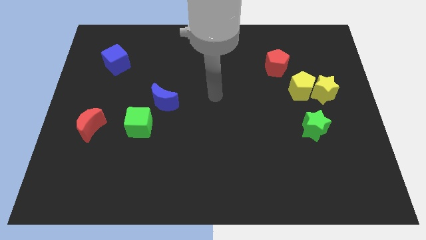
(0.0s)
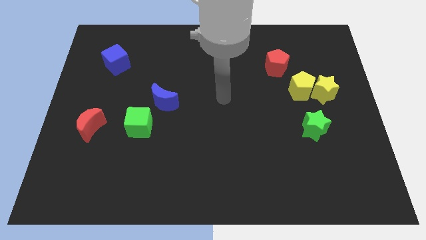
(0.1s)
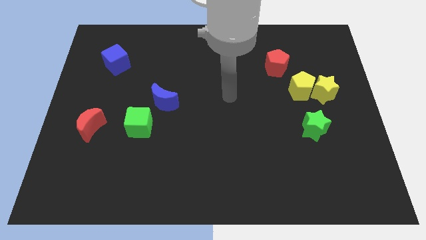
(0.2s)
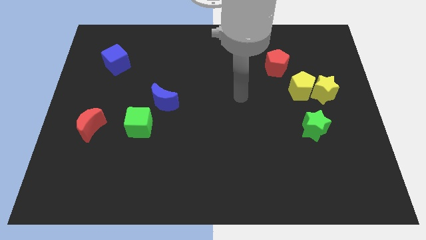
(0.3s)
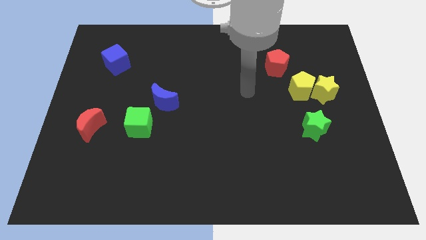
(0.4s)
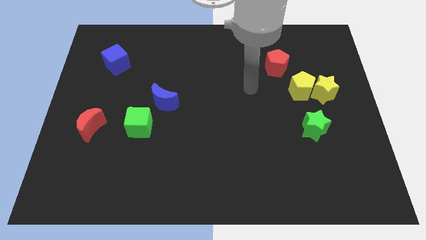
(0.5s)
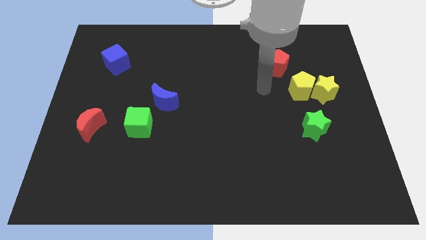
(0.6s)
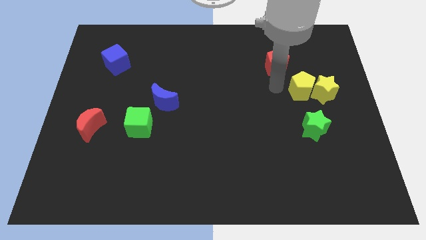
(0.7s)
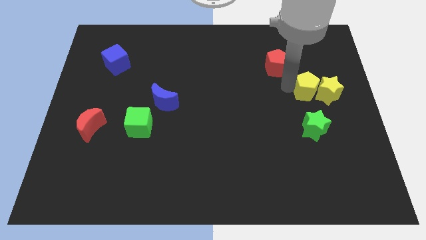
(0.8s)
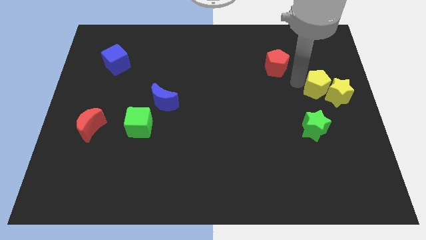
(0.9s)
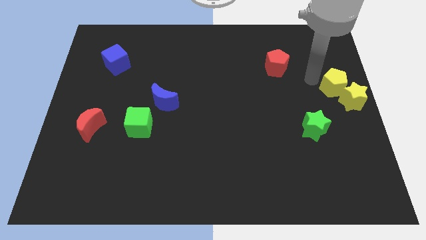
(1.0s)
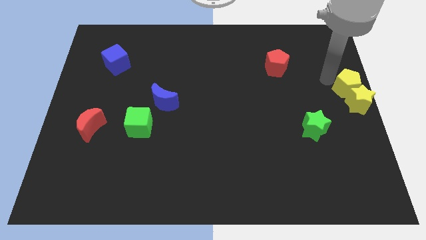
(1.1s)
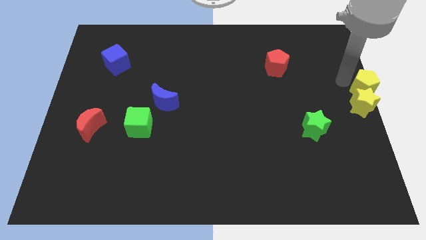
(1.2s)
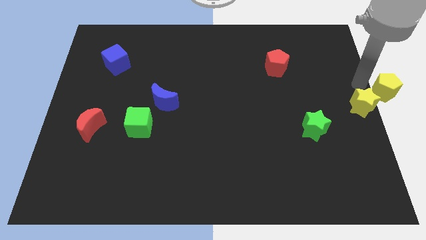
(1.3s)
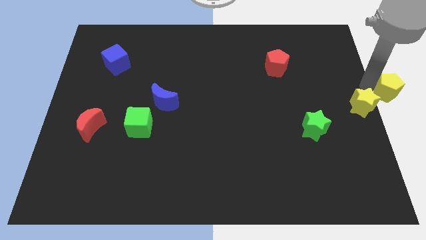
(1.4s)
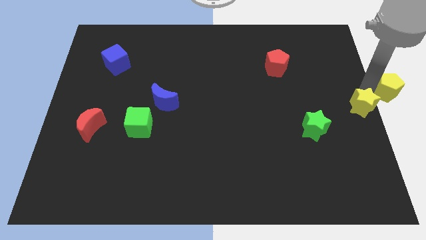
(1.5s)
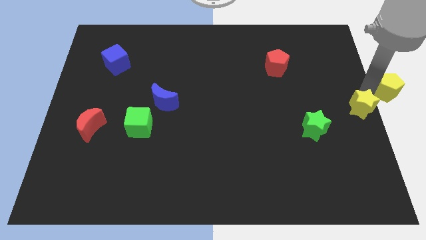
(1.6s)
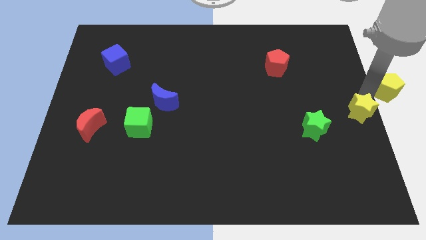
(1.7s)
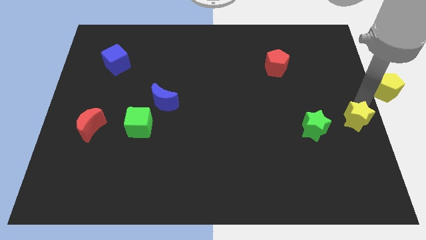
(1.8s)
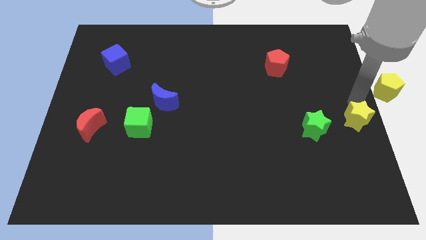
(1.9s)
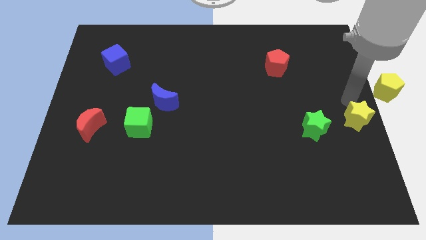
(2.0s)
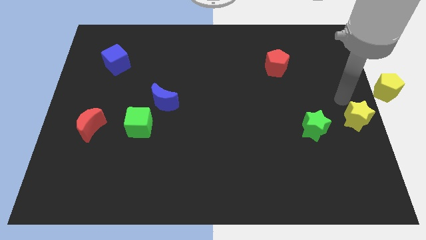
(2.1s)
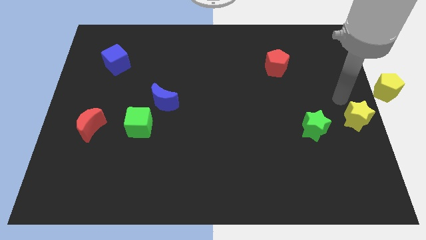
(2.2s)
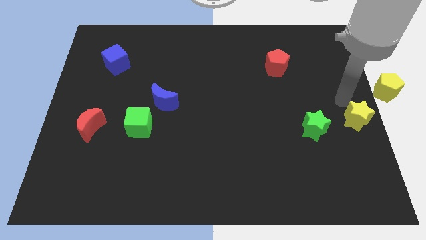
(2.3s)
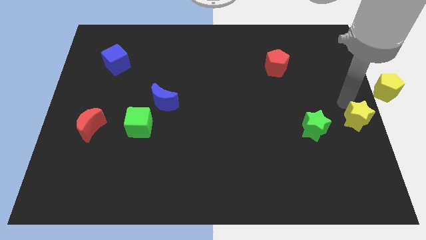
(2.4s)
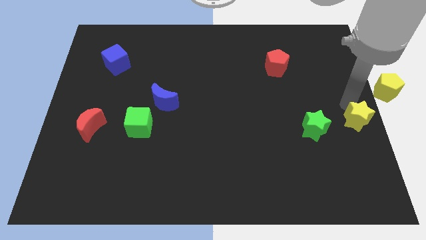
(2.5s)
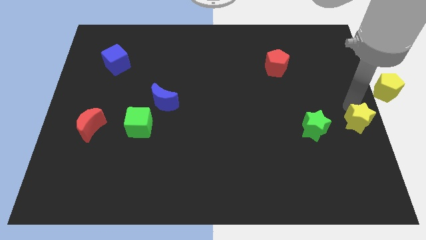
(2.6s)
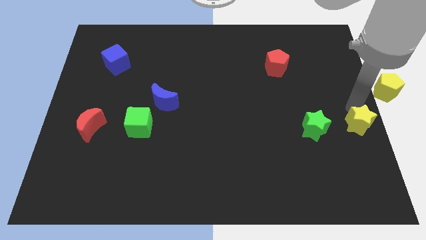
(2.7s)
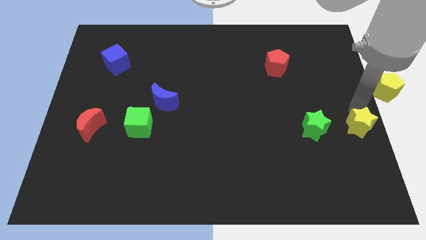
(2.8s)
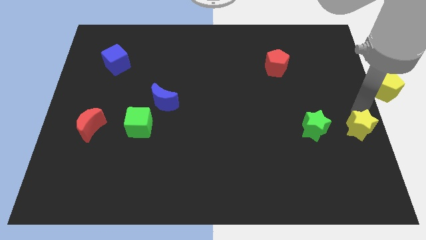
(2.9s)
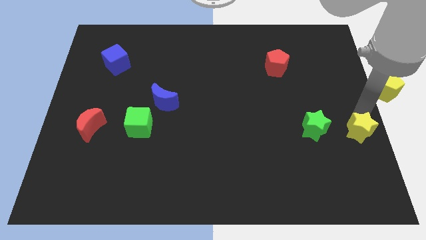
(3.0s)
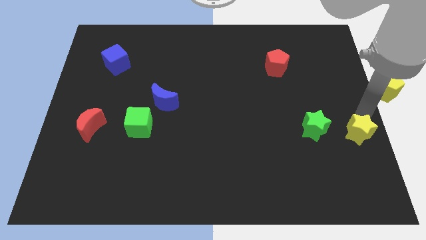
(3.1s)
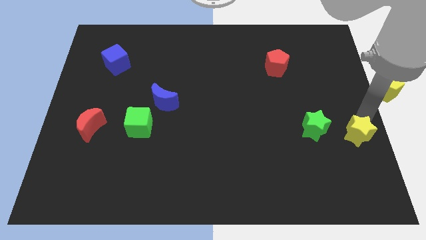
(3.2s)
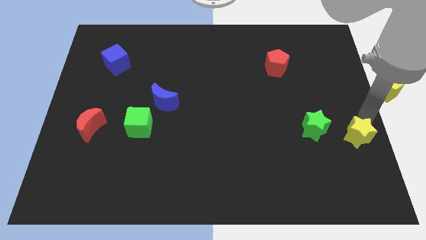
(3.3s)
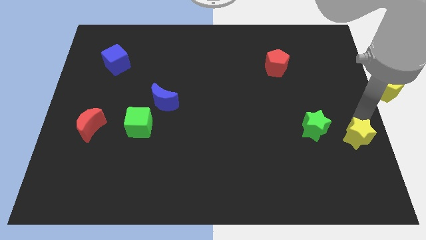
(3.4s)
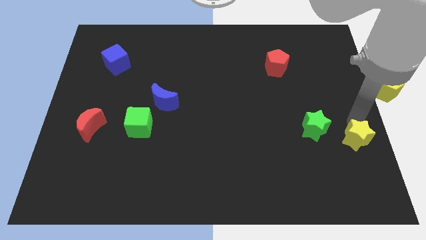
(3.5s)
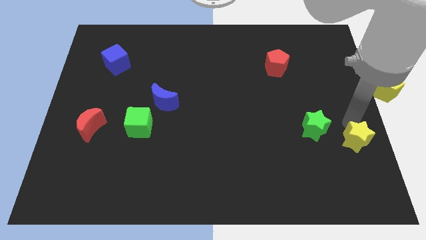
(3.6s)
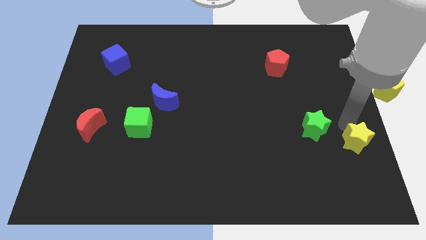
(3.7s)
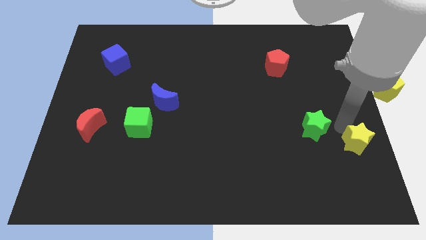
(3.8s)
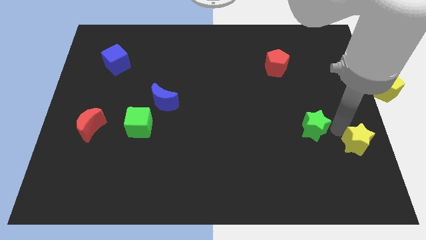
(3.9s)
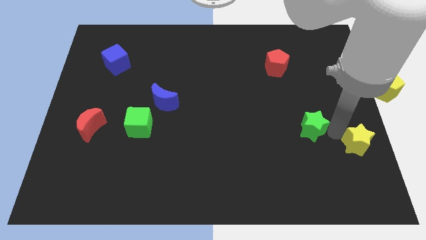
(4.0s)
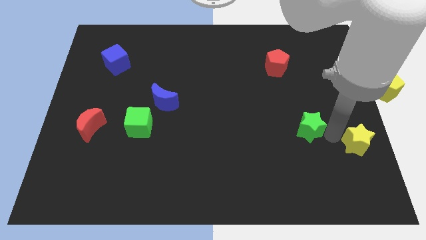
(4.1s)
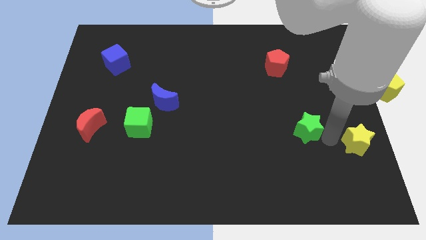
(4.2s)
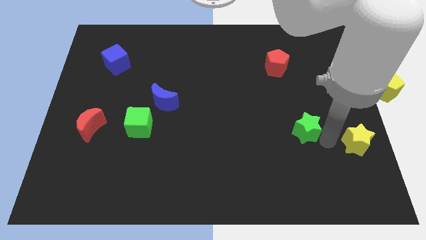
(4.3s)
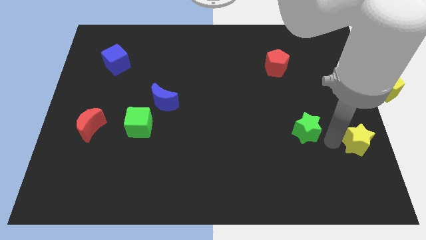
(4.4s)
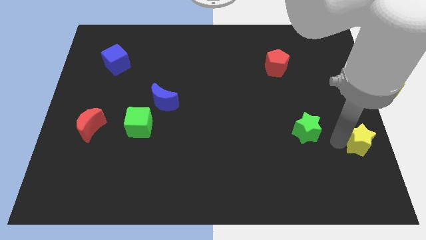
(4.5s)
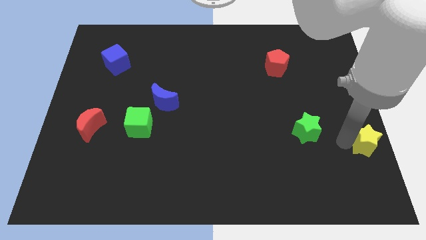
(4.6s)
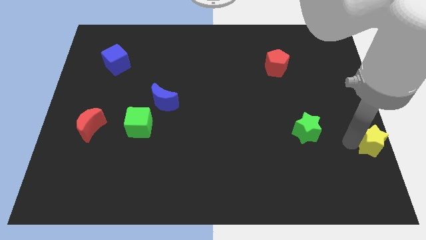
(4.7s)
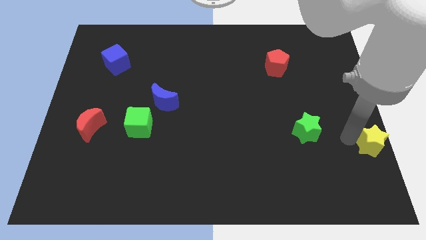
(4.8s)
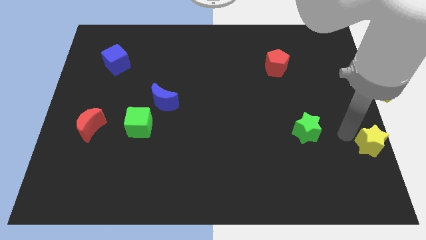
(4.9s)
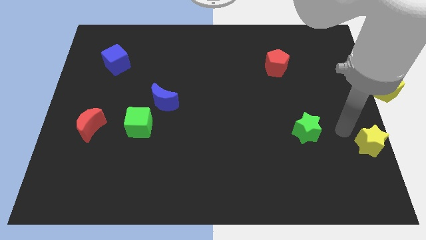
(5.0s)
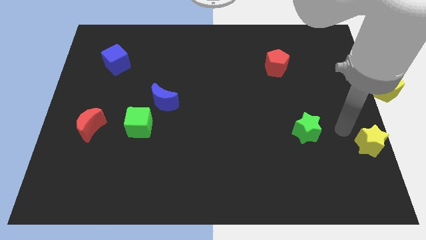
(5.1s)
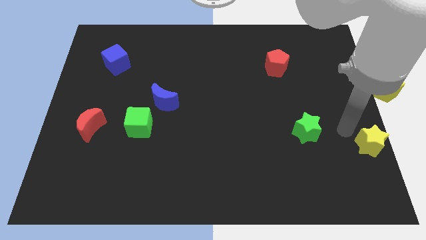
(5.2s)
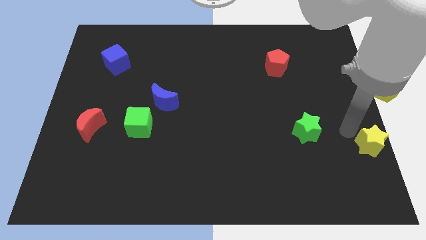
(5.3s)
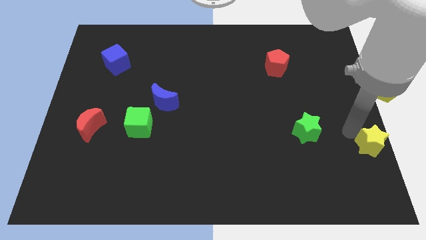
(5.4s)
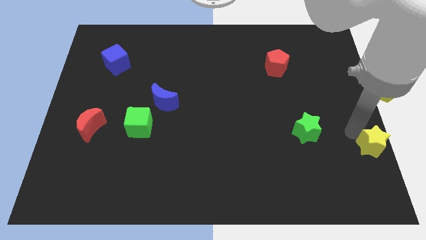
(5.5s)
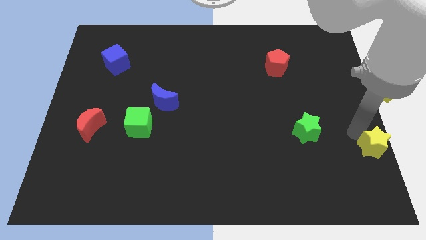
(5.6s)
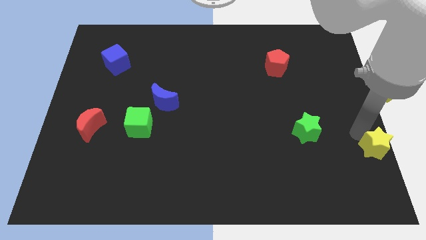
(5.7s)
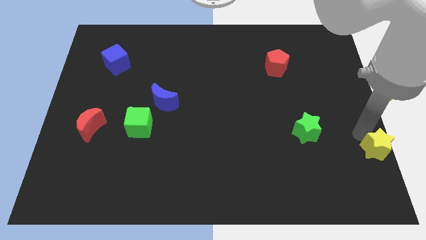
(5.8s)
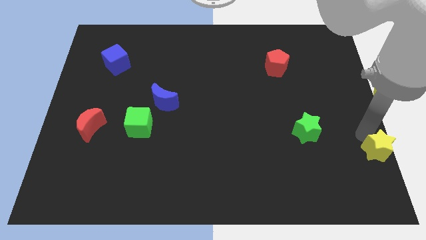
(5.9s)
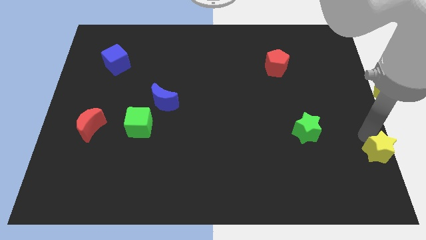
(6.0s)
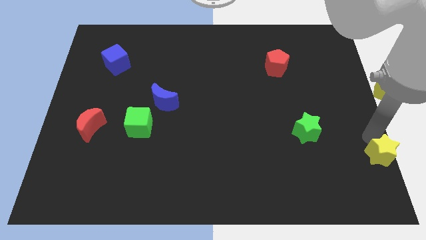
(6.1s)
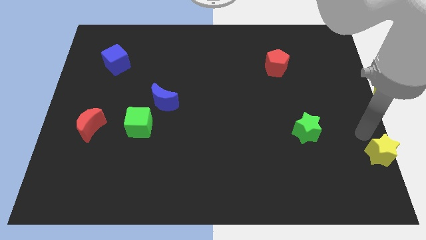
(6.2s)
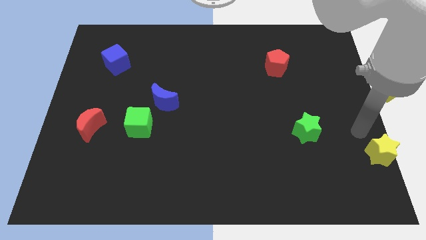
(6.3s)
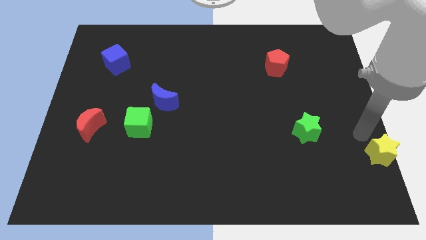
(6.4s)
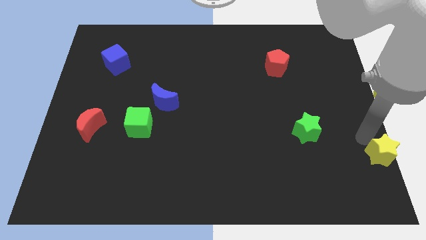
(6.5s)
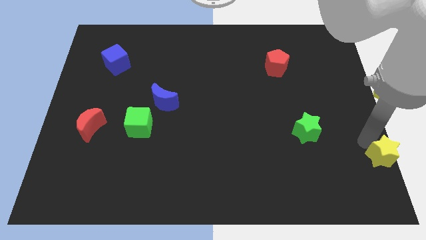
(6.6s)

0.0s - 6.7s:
push the yellow star to the bottom right
